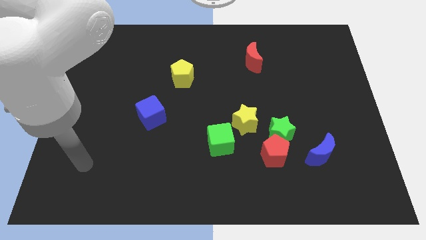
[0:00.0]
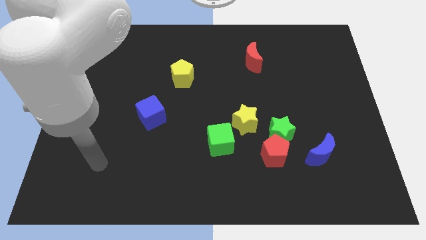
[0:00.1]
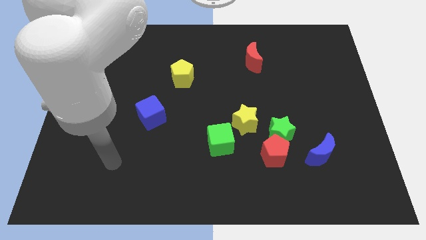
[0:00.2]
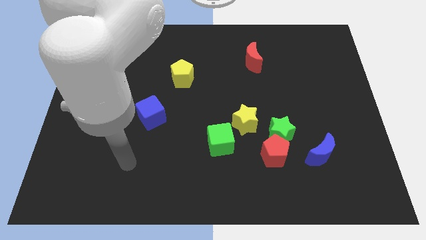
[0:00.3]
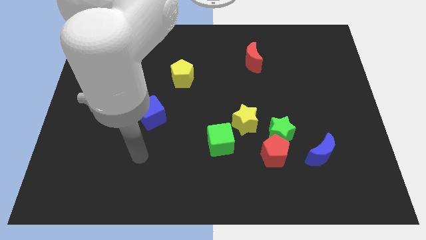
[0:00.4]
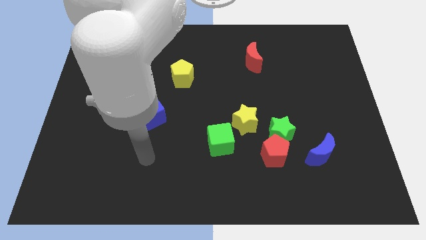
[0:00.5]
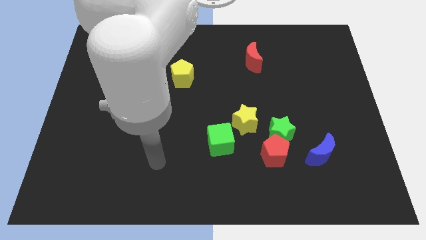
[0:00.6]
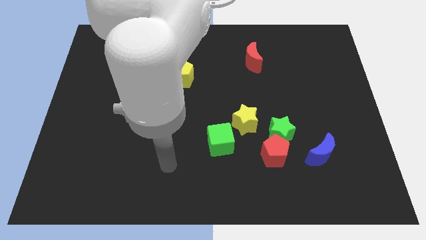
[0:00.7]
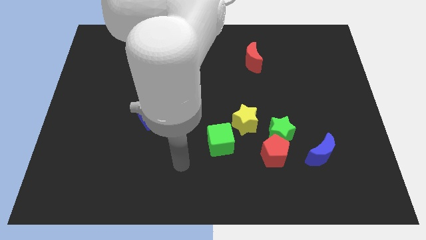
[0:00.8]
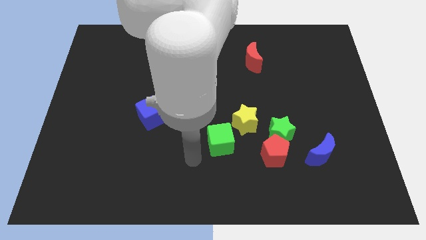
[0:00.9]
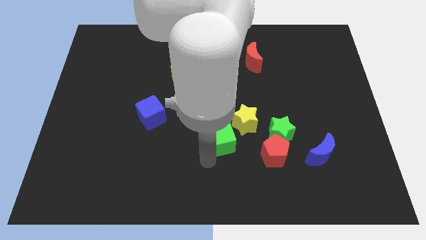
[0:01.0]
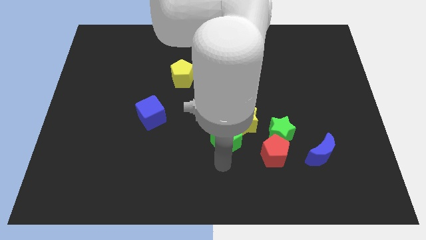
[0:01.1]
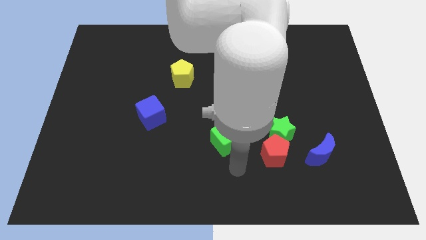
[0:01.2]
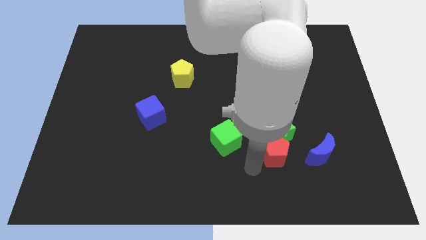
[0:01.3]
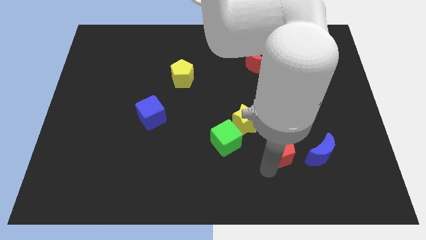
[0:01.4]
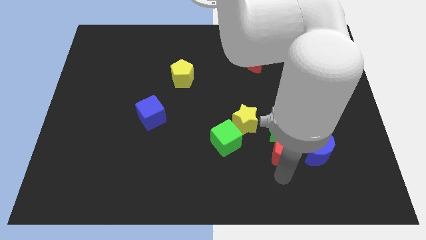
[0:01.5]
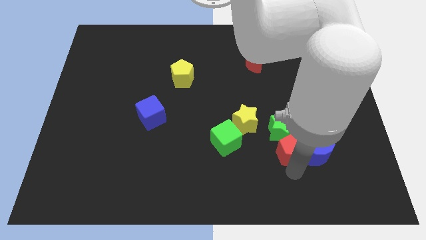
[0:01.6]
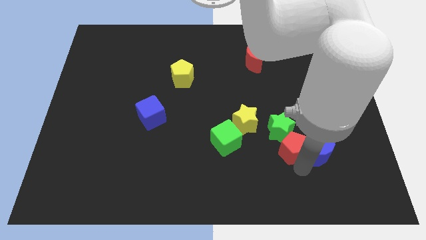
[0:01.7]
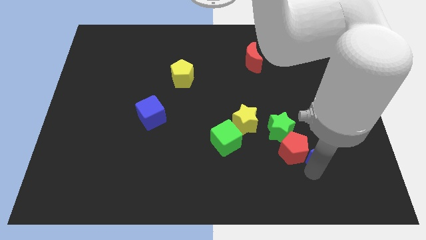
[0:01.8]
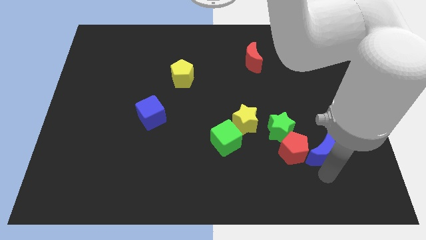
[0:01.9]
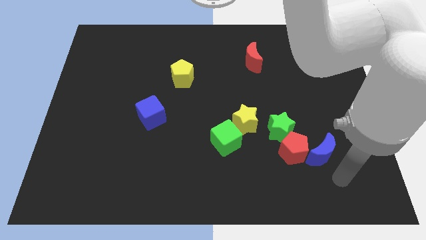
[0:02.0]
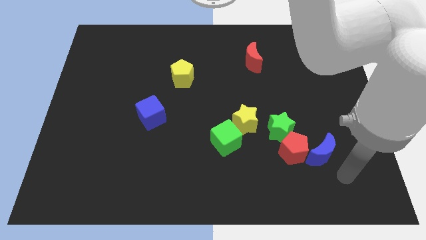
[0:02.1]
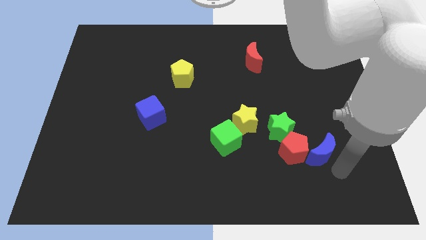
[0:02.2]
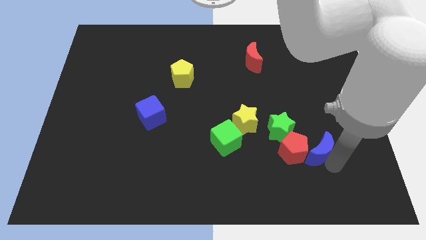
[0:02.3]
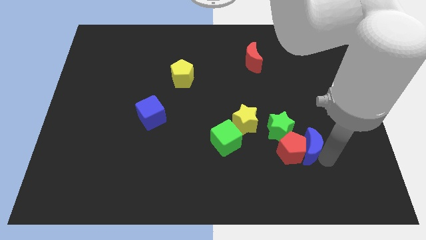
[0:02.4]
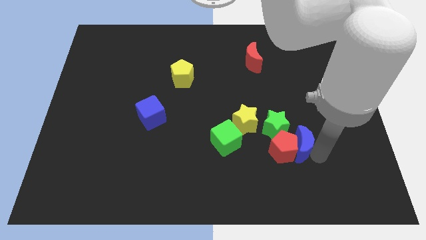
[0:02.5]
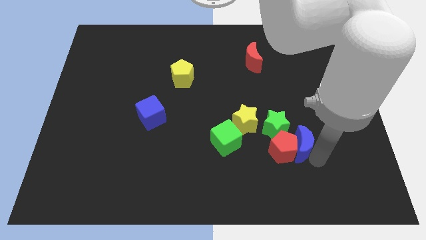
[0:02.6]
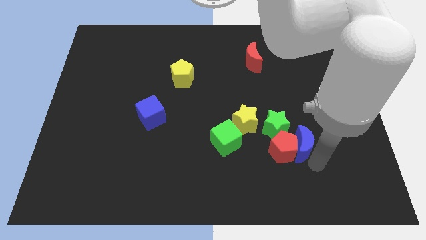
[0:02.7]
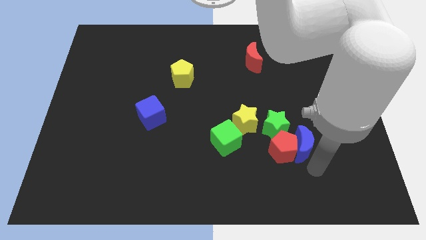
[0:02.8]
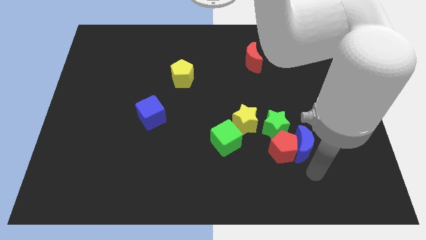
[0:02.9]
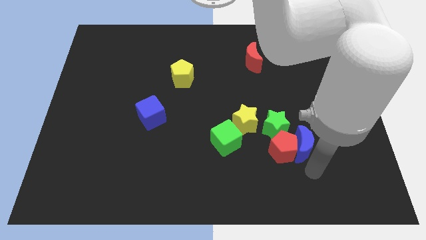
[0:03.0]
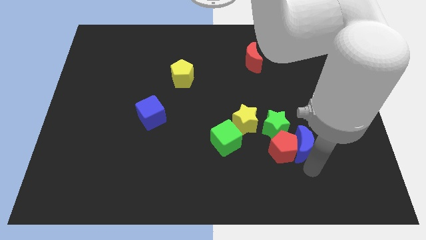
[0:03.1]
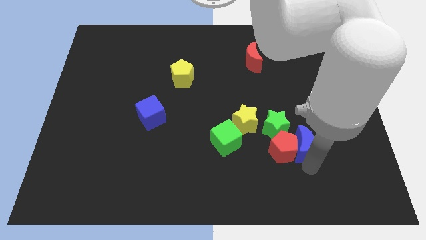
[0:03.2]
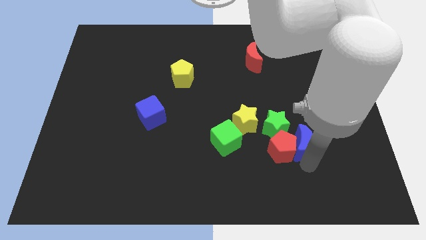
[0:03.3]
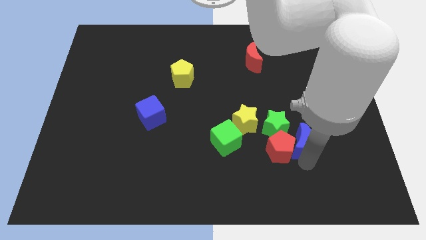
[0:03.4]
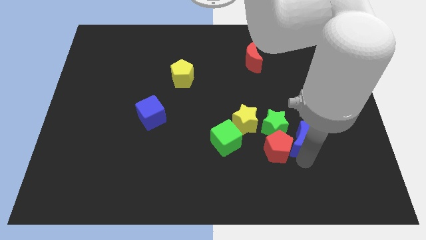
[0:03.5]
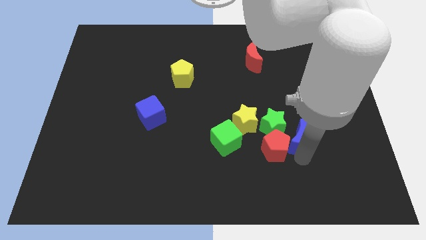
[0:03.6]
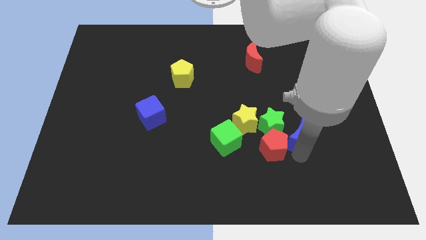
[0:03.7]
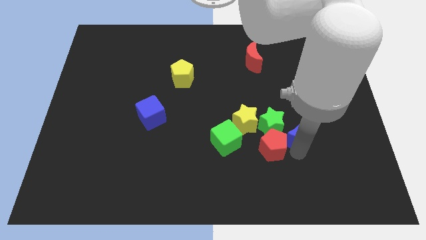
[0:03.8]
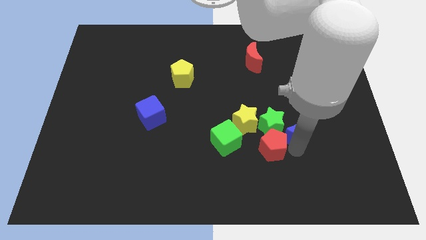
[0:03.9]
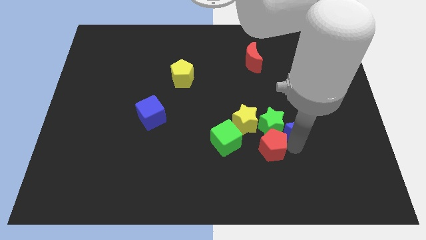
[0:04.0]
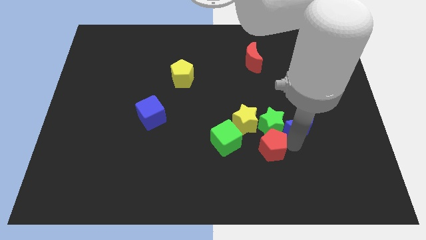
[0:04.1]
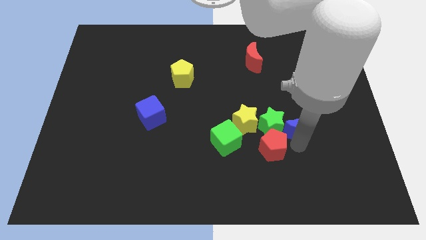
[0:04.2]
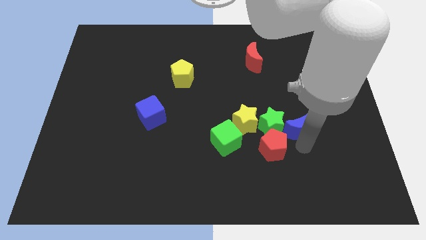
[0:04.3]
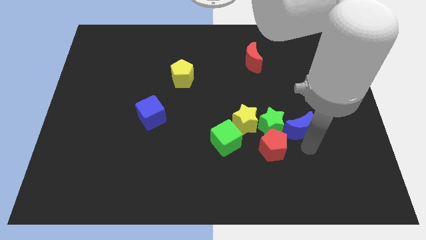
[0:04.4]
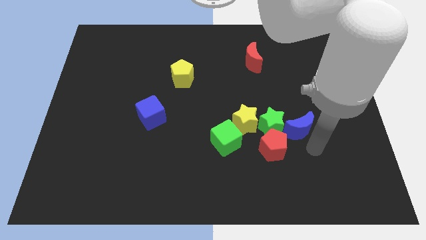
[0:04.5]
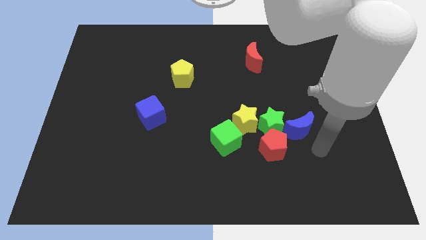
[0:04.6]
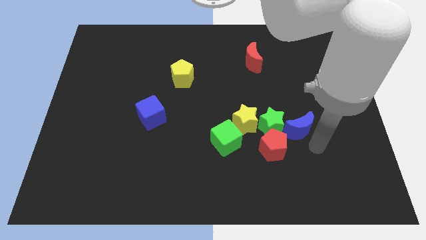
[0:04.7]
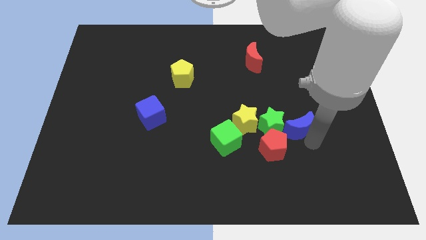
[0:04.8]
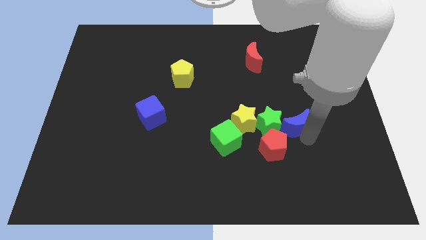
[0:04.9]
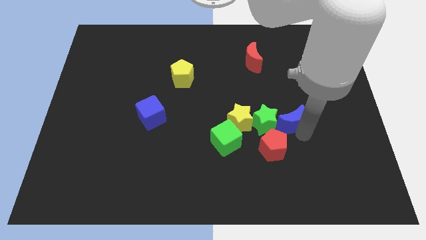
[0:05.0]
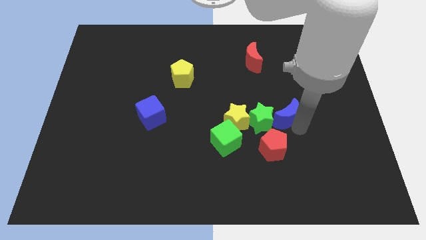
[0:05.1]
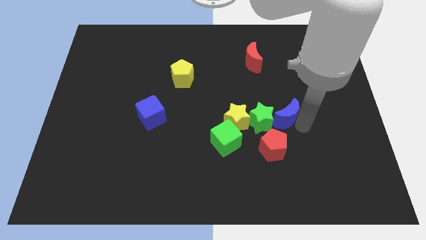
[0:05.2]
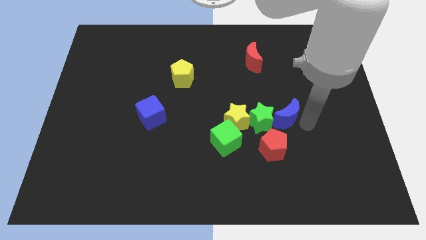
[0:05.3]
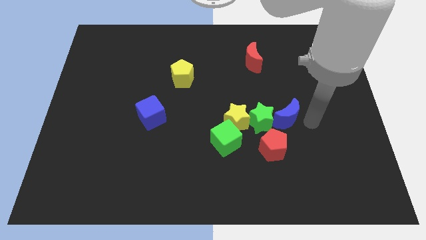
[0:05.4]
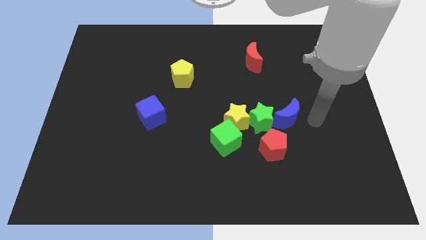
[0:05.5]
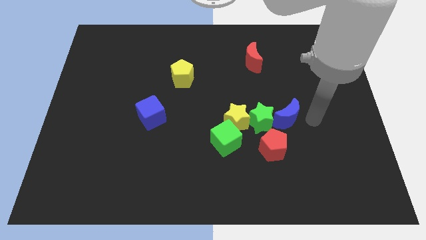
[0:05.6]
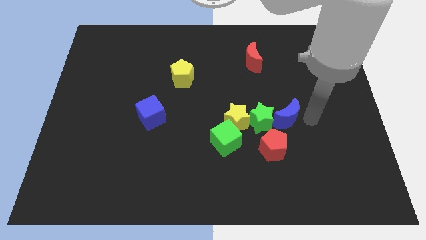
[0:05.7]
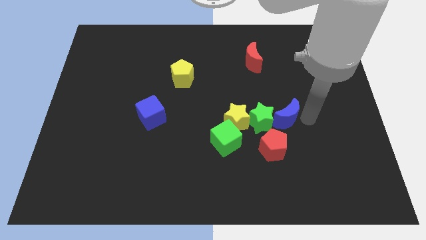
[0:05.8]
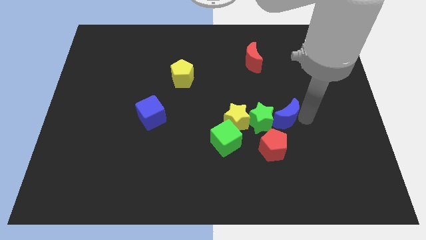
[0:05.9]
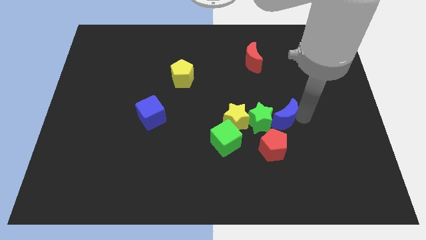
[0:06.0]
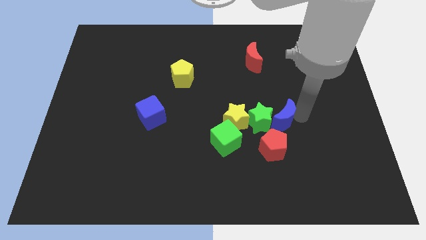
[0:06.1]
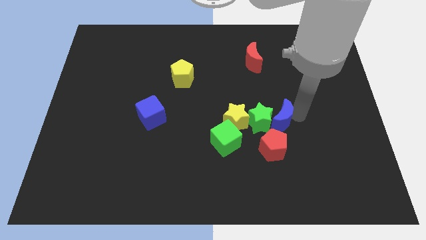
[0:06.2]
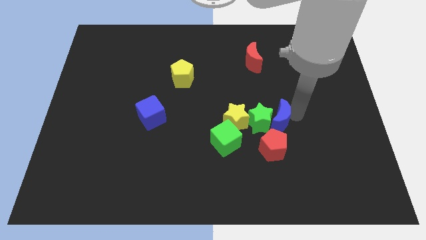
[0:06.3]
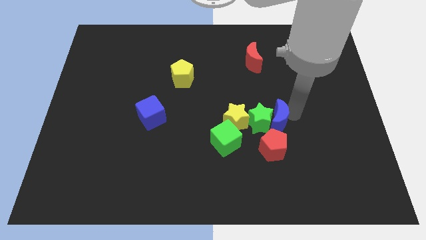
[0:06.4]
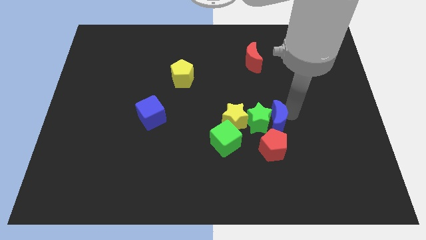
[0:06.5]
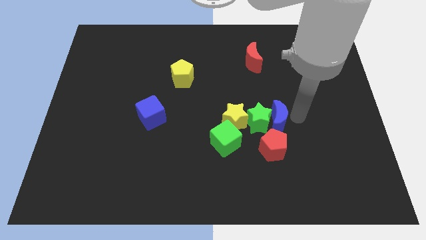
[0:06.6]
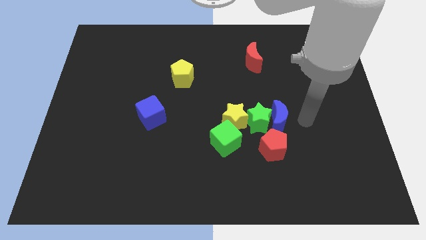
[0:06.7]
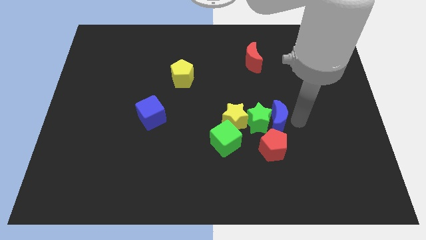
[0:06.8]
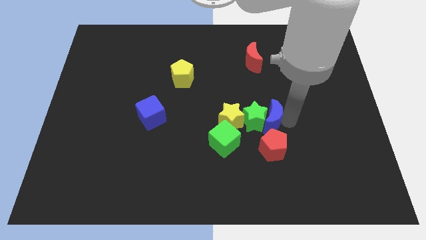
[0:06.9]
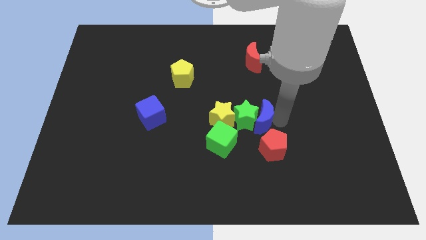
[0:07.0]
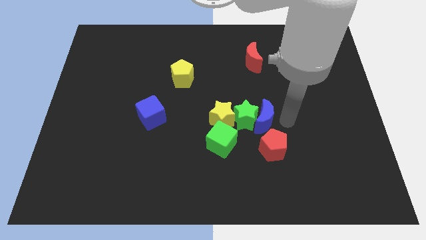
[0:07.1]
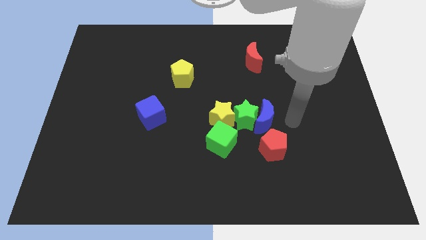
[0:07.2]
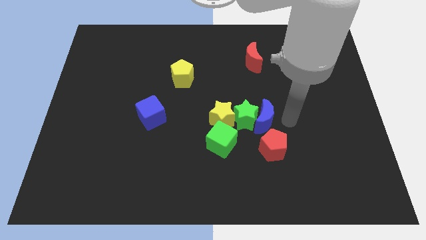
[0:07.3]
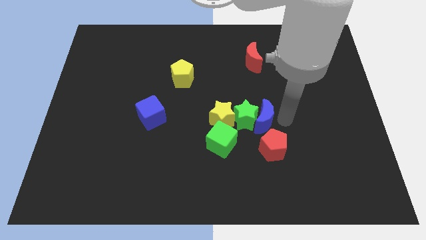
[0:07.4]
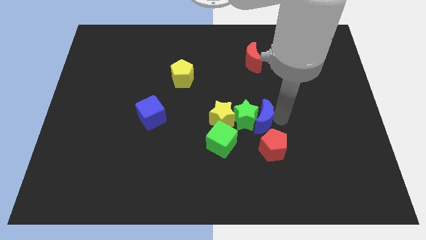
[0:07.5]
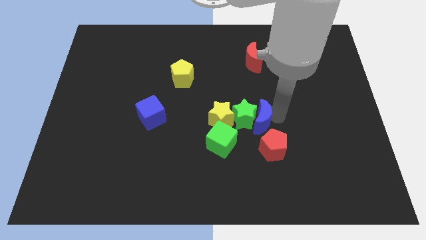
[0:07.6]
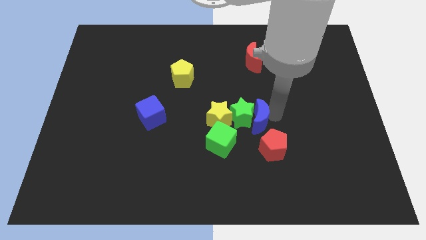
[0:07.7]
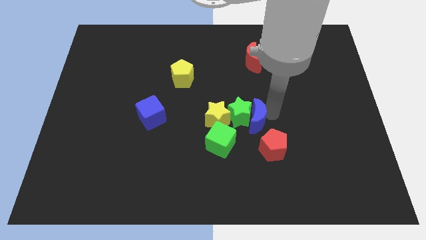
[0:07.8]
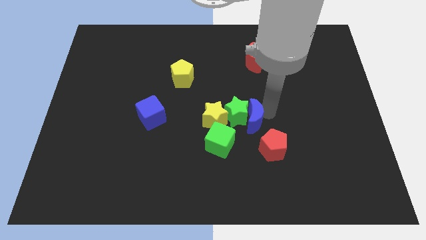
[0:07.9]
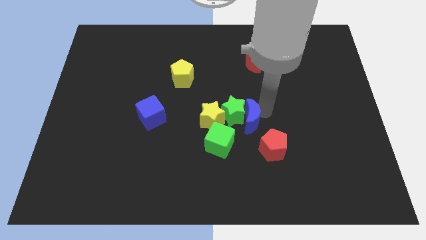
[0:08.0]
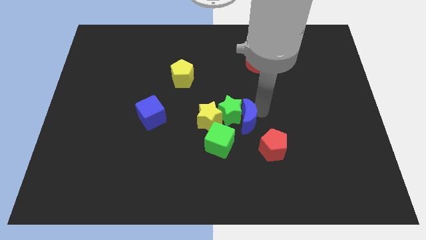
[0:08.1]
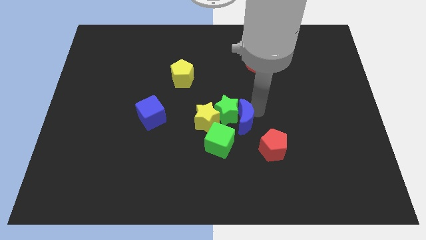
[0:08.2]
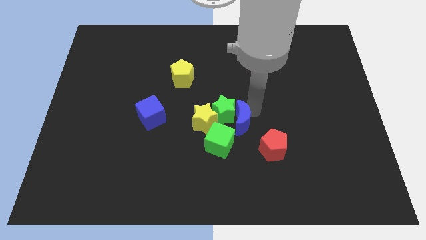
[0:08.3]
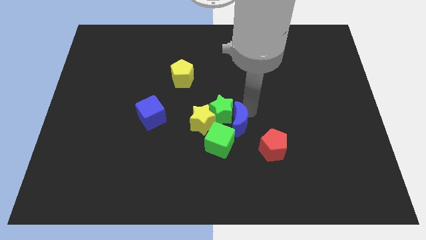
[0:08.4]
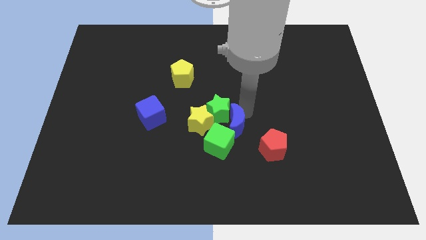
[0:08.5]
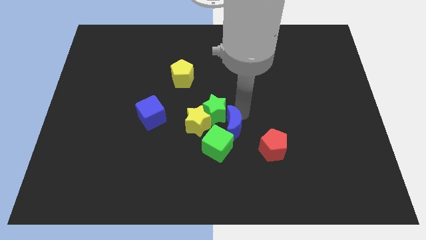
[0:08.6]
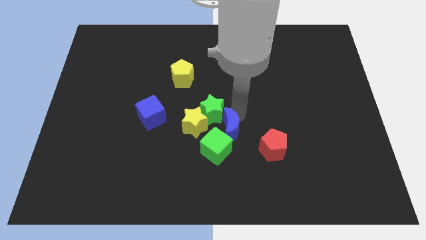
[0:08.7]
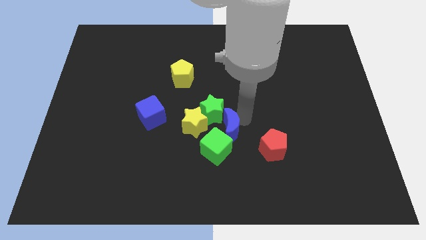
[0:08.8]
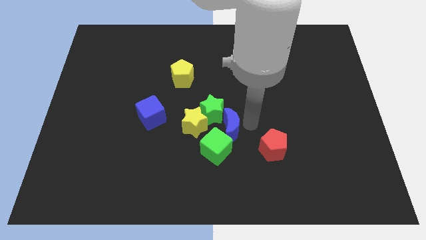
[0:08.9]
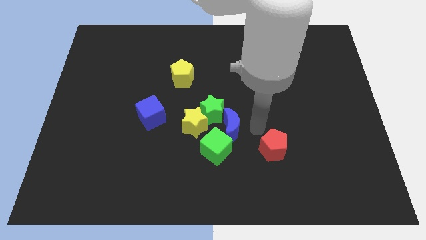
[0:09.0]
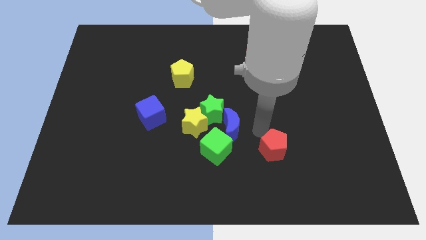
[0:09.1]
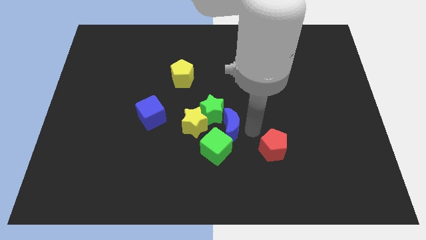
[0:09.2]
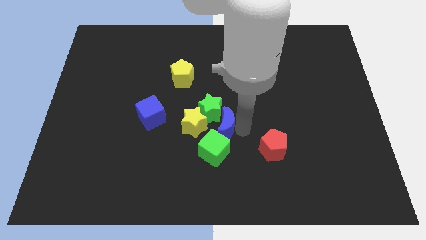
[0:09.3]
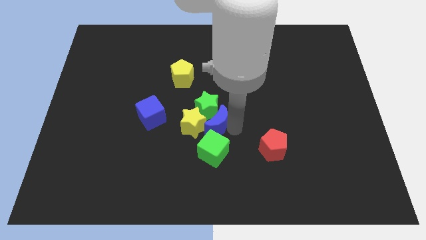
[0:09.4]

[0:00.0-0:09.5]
slide the blue moon towards the yellow star
